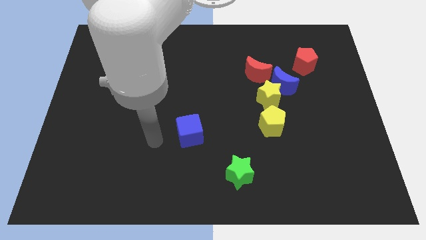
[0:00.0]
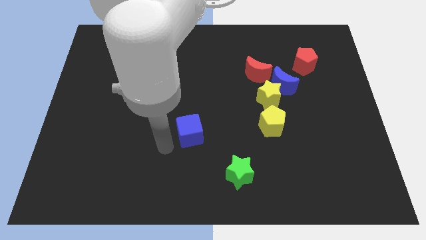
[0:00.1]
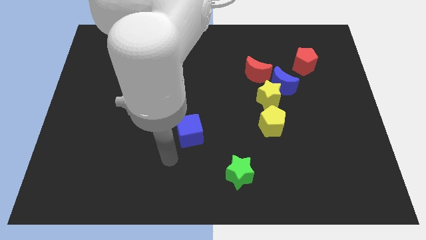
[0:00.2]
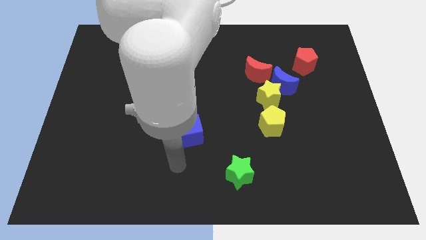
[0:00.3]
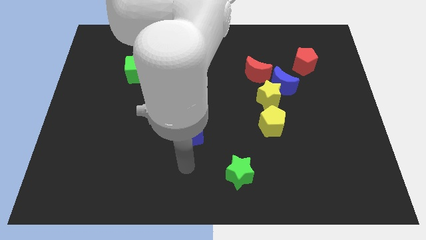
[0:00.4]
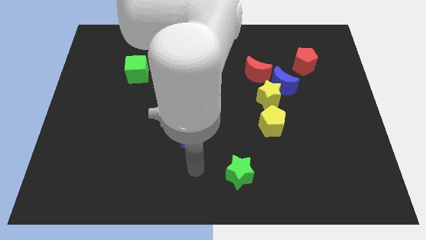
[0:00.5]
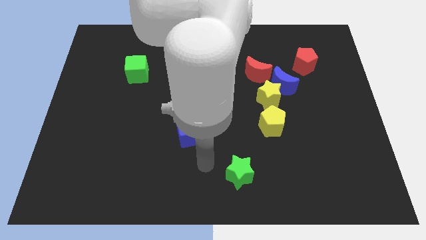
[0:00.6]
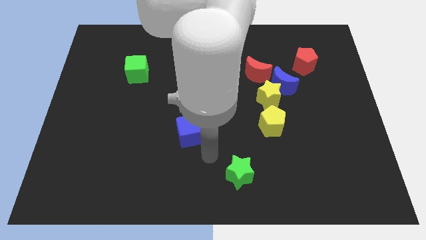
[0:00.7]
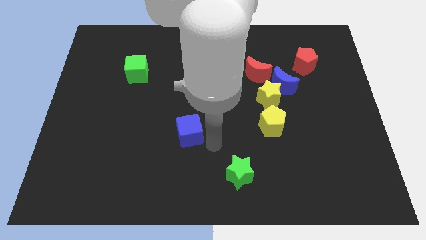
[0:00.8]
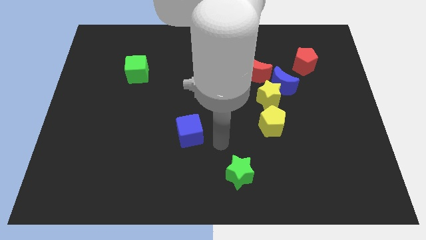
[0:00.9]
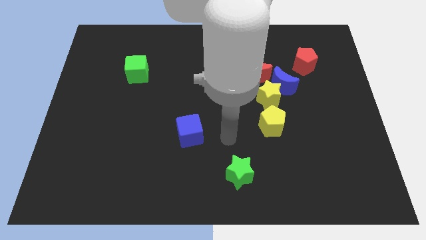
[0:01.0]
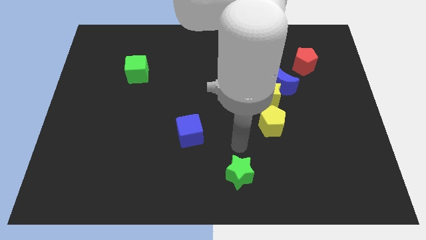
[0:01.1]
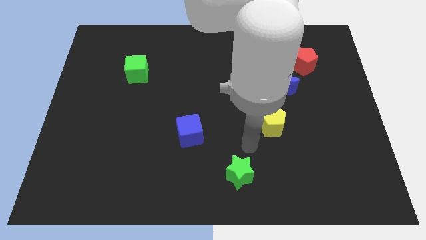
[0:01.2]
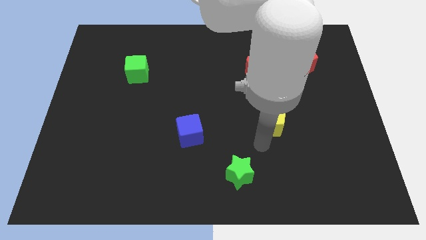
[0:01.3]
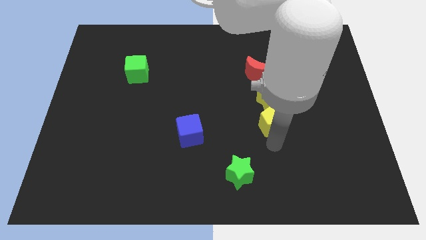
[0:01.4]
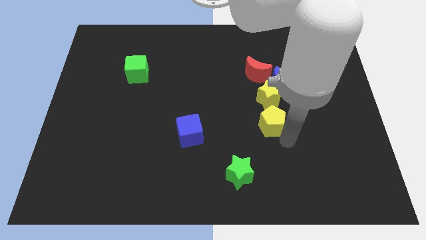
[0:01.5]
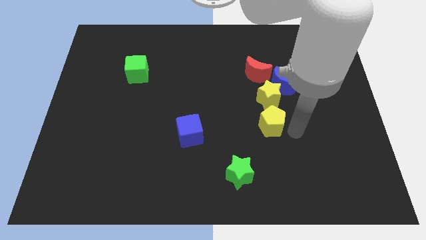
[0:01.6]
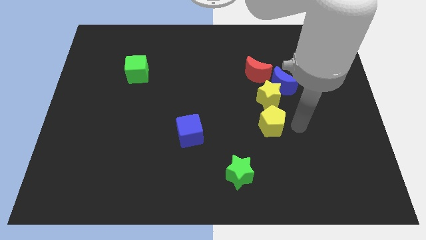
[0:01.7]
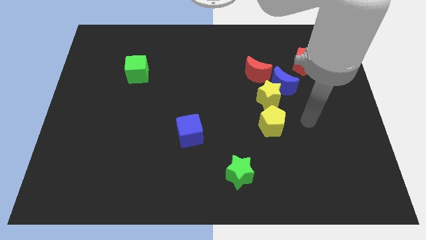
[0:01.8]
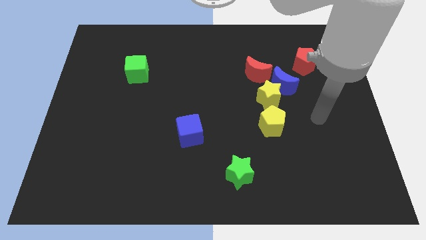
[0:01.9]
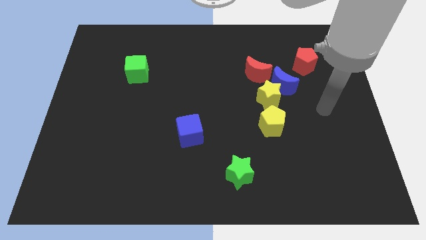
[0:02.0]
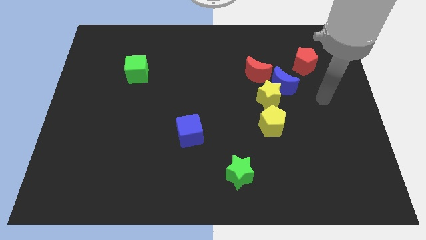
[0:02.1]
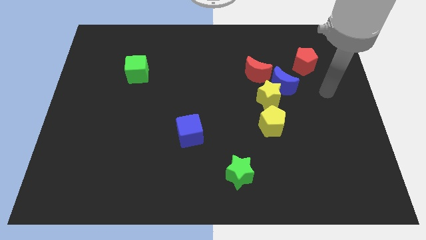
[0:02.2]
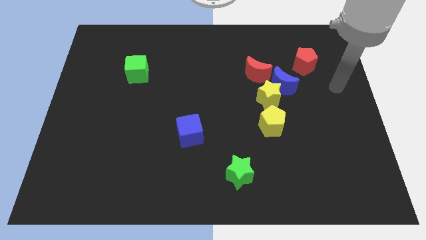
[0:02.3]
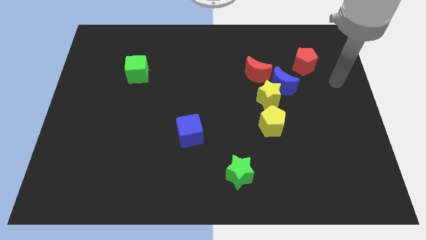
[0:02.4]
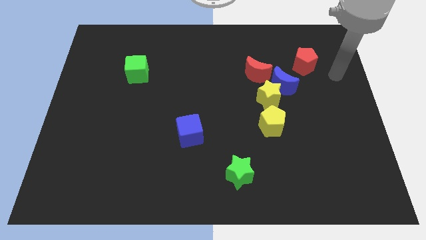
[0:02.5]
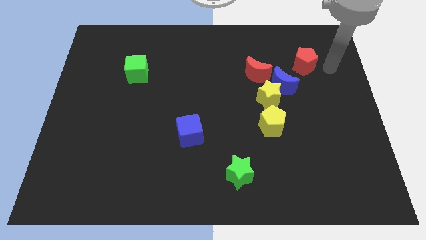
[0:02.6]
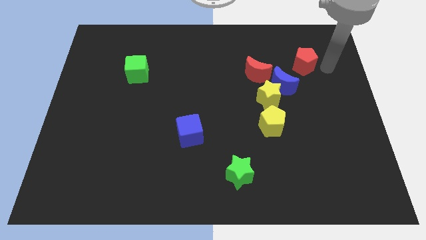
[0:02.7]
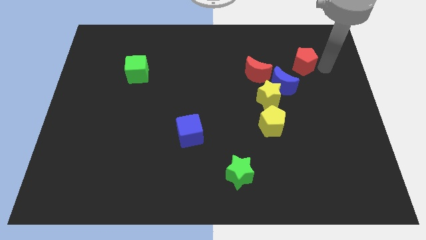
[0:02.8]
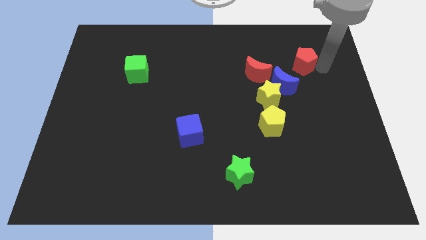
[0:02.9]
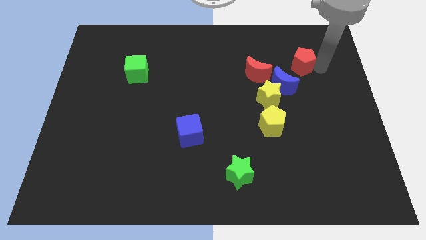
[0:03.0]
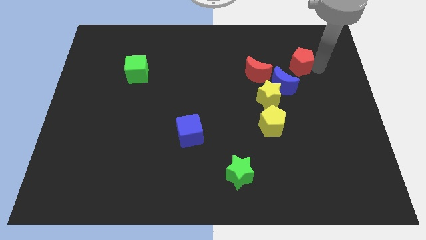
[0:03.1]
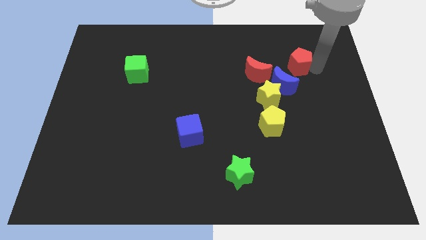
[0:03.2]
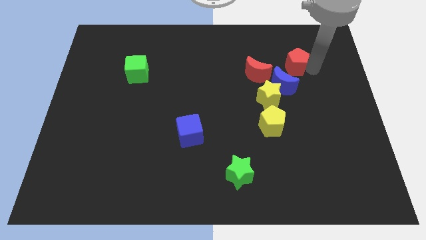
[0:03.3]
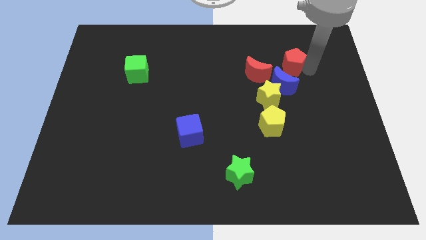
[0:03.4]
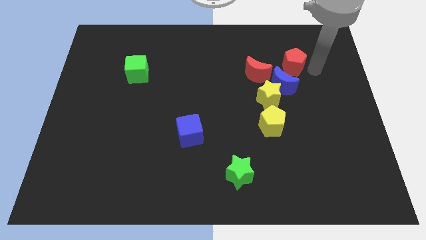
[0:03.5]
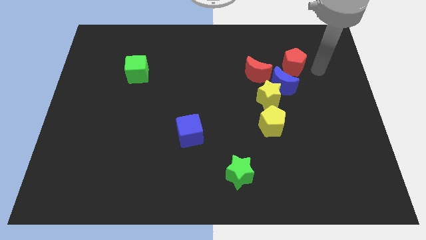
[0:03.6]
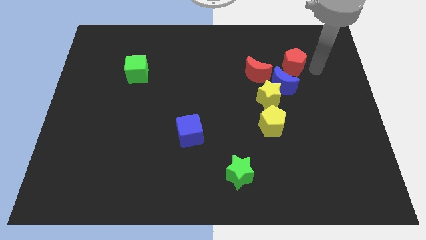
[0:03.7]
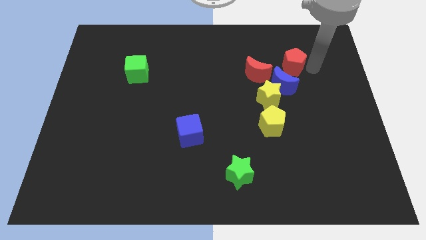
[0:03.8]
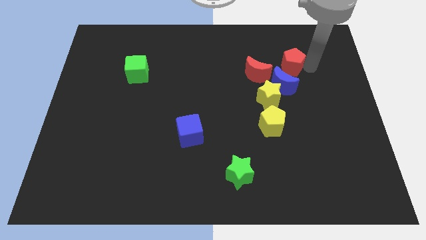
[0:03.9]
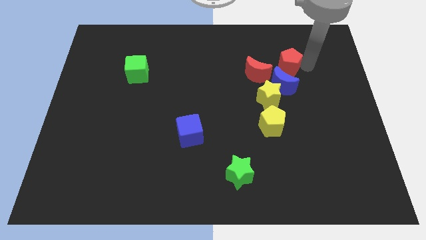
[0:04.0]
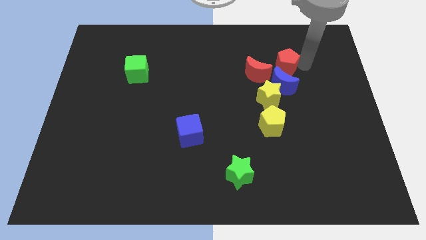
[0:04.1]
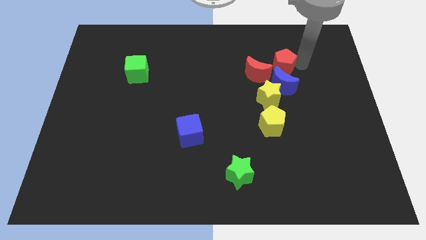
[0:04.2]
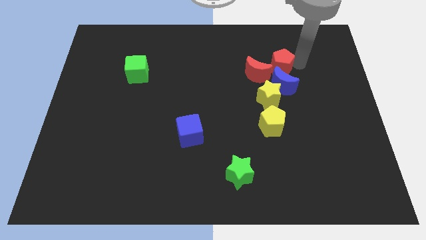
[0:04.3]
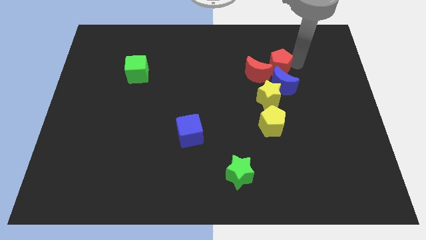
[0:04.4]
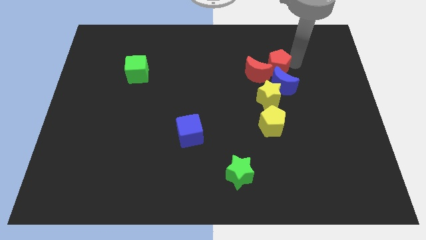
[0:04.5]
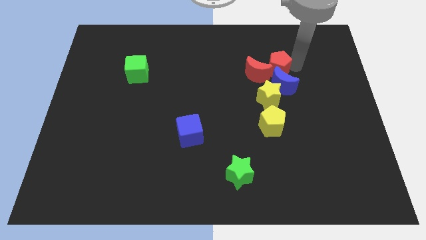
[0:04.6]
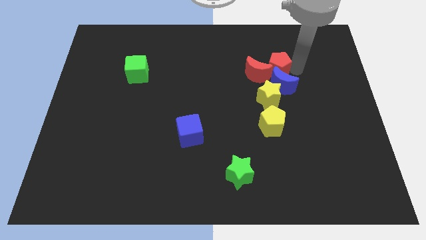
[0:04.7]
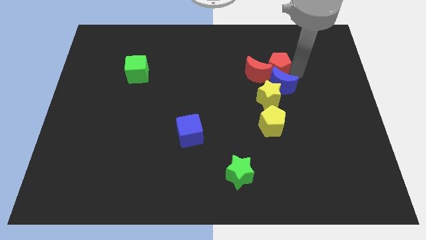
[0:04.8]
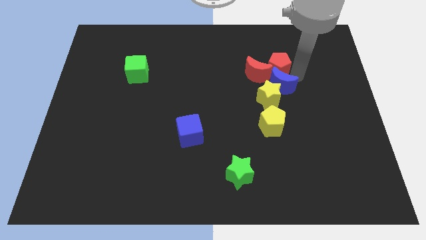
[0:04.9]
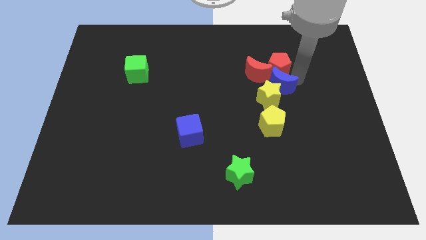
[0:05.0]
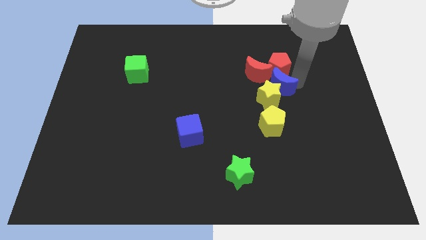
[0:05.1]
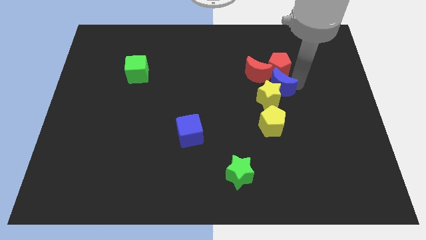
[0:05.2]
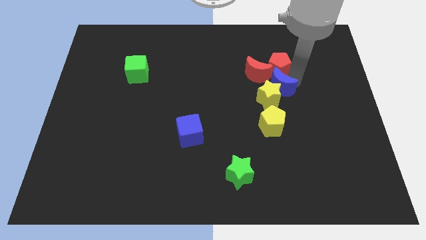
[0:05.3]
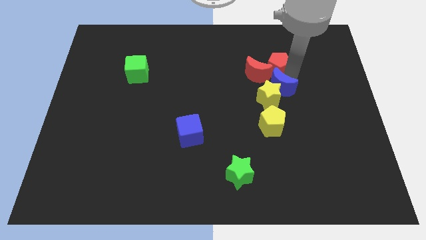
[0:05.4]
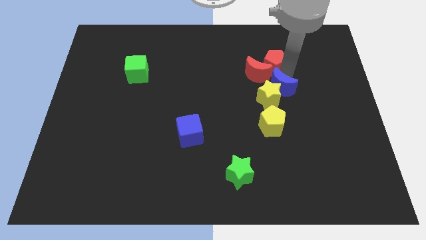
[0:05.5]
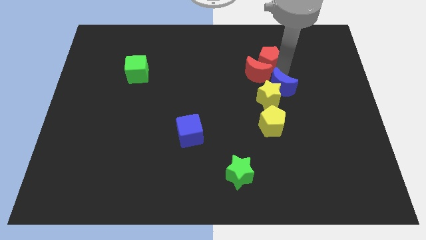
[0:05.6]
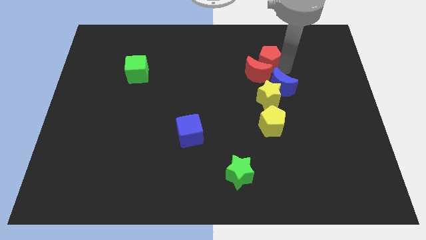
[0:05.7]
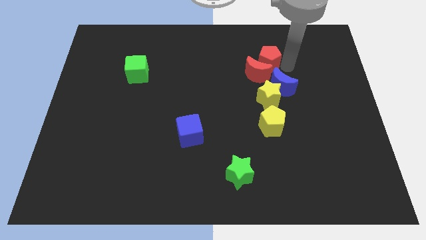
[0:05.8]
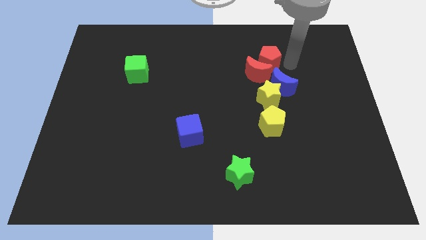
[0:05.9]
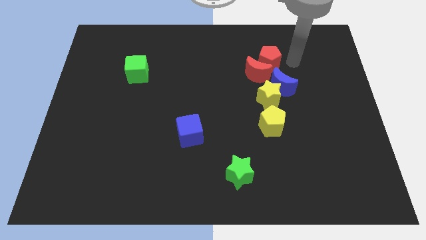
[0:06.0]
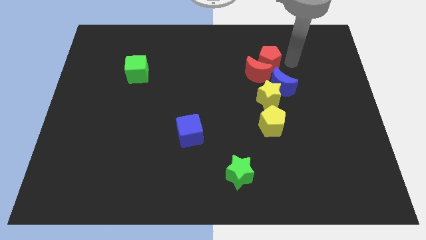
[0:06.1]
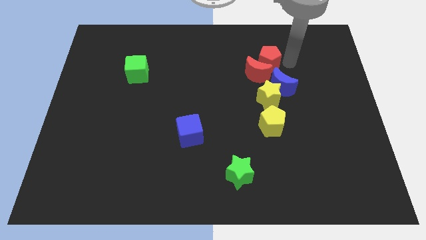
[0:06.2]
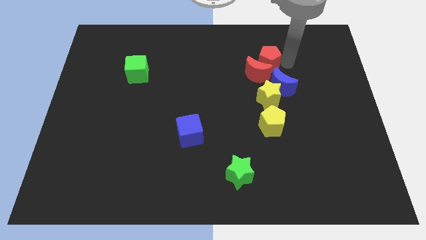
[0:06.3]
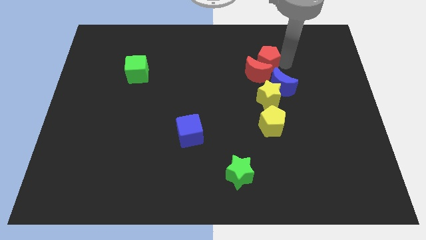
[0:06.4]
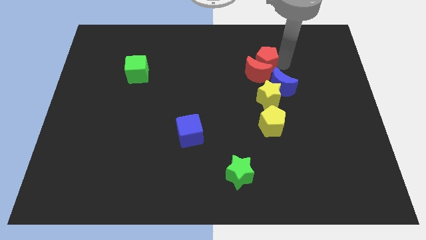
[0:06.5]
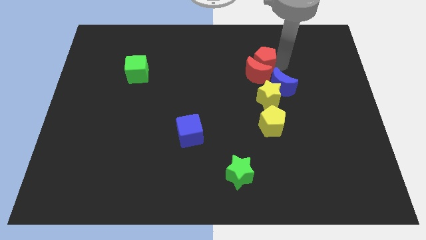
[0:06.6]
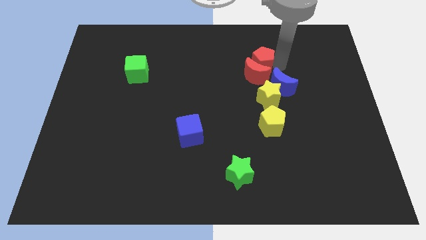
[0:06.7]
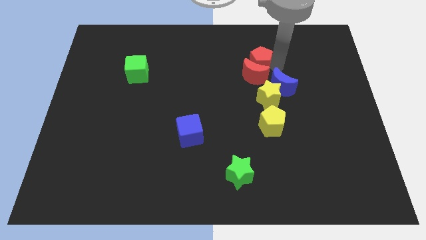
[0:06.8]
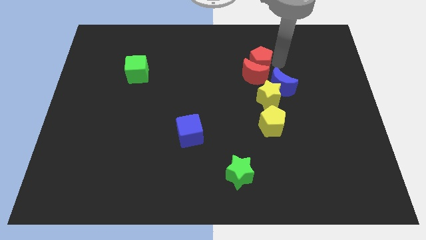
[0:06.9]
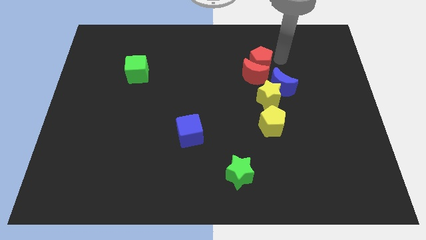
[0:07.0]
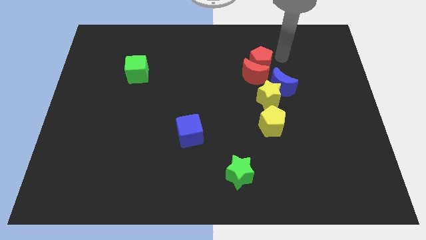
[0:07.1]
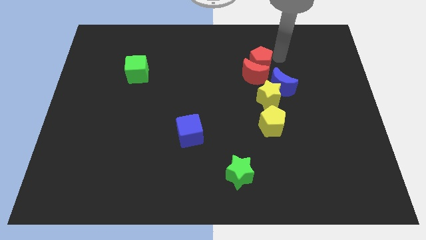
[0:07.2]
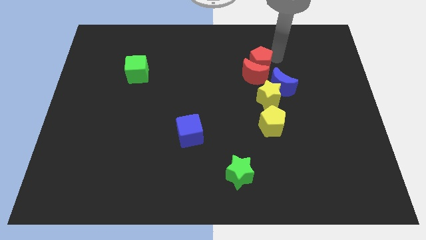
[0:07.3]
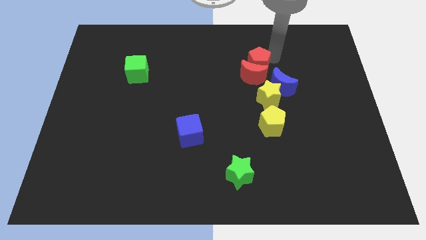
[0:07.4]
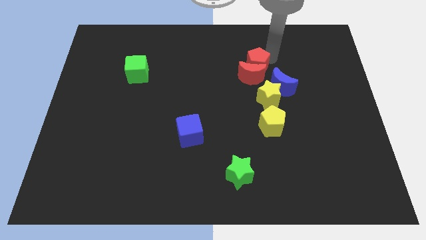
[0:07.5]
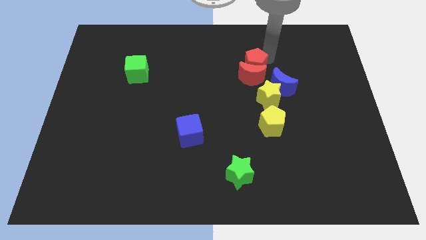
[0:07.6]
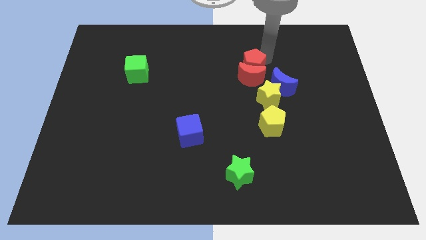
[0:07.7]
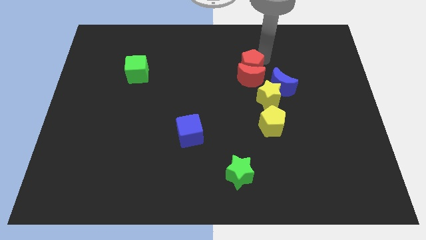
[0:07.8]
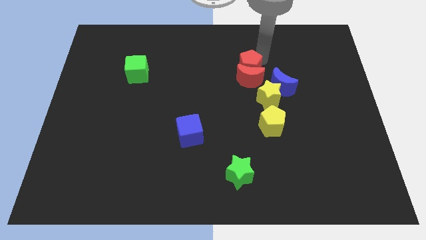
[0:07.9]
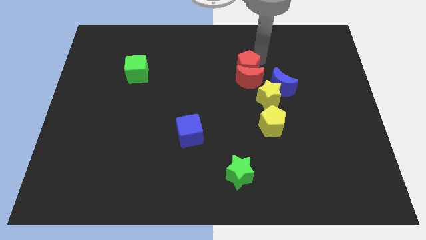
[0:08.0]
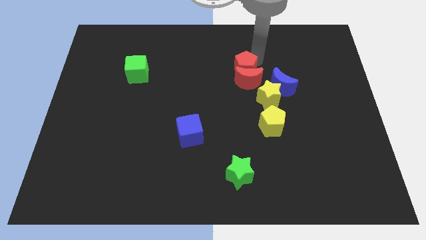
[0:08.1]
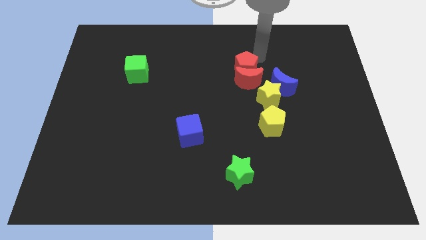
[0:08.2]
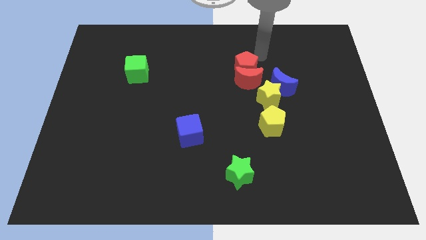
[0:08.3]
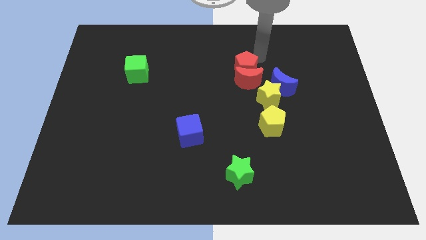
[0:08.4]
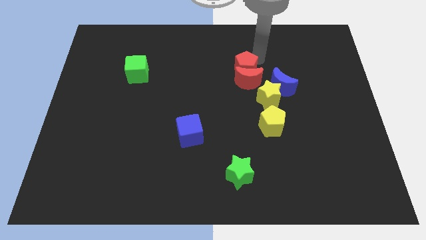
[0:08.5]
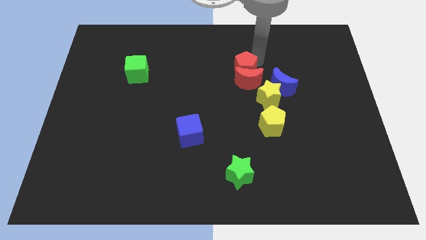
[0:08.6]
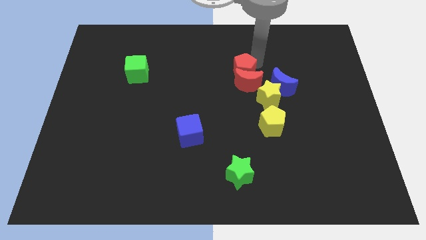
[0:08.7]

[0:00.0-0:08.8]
slide the red pentagon to the center
